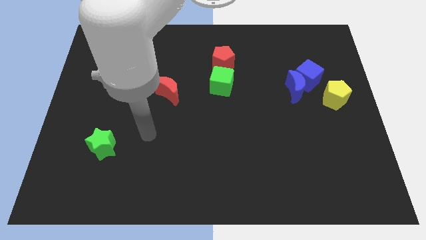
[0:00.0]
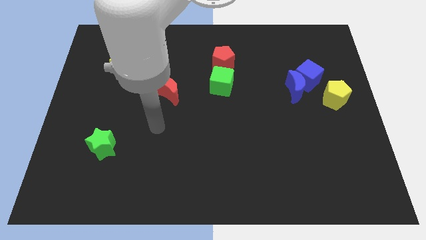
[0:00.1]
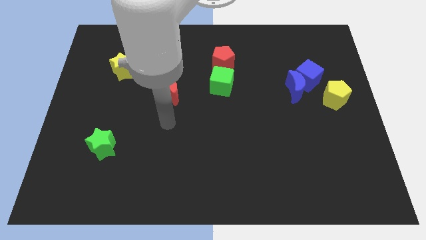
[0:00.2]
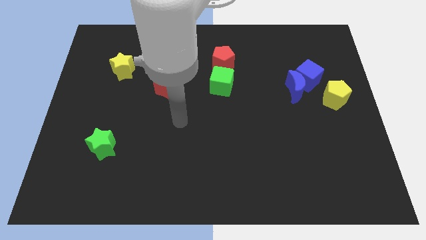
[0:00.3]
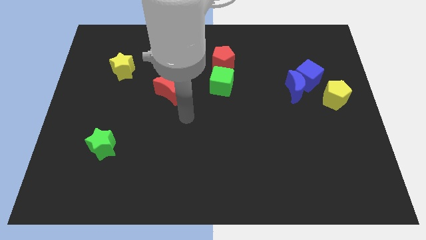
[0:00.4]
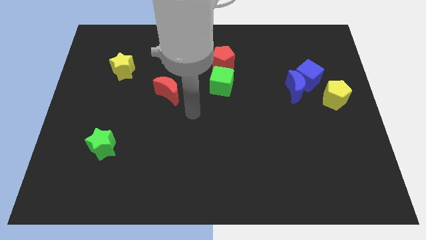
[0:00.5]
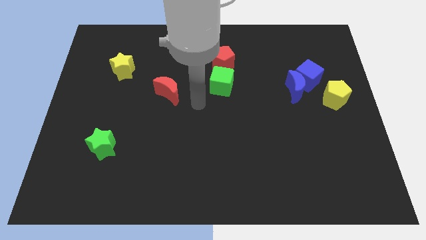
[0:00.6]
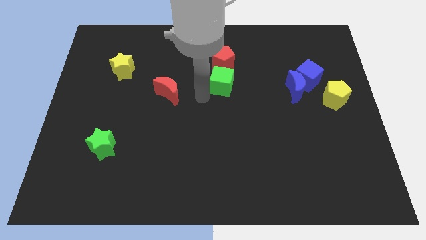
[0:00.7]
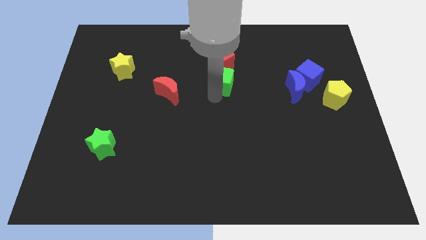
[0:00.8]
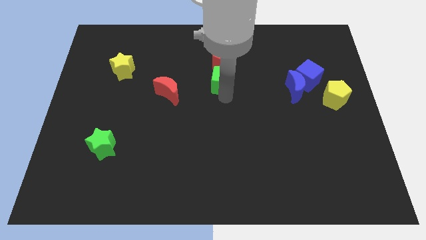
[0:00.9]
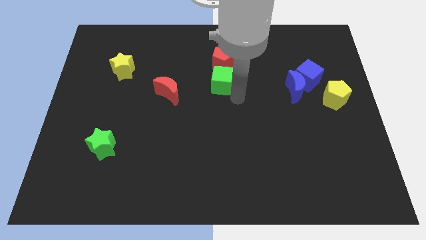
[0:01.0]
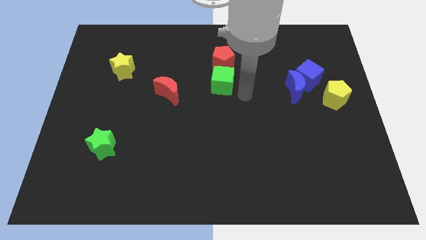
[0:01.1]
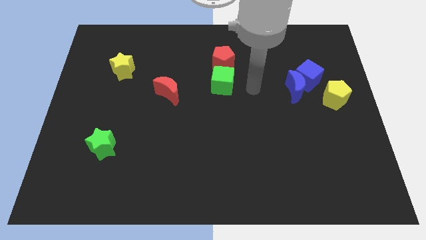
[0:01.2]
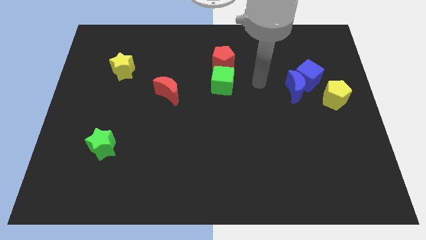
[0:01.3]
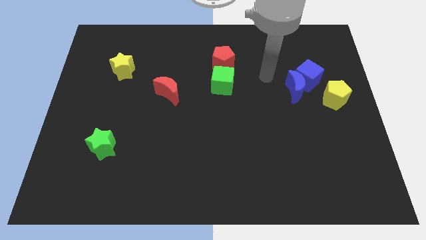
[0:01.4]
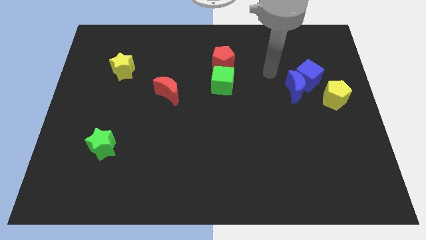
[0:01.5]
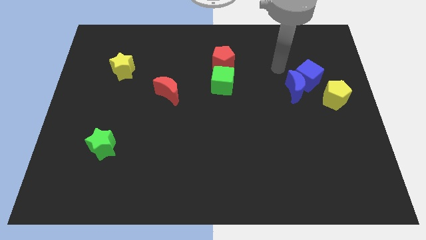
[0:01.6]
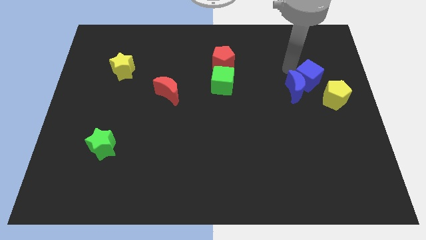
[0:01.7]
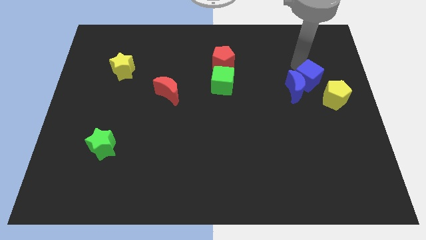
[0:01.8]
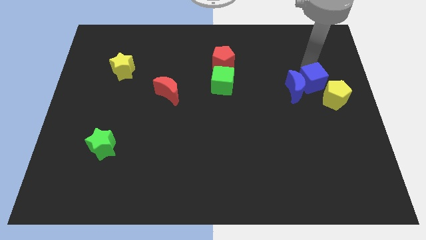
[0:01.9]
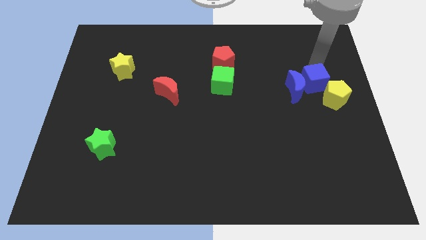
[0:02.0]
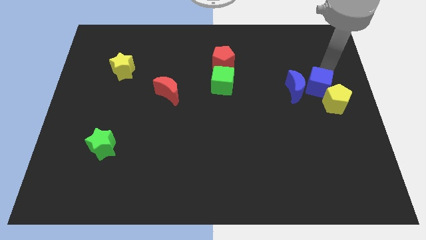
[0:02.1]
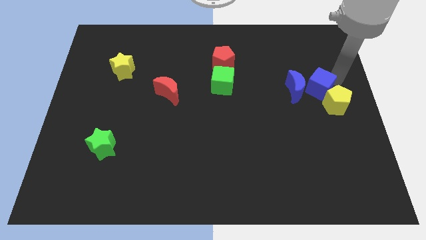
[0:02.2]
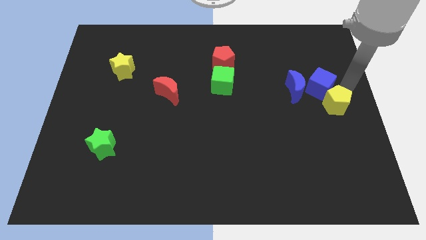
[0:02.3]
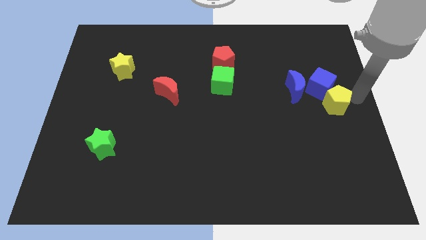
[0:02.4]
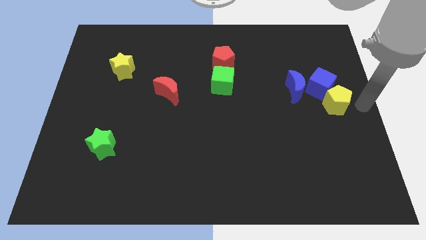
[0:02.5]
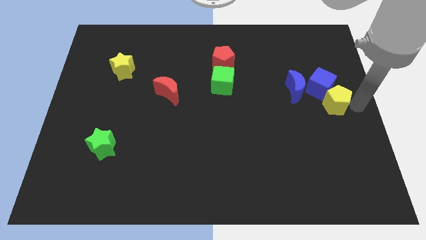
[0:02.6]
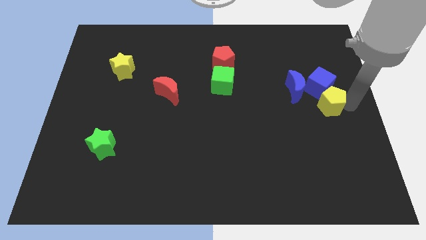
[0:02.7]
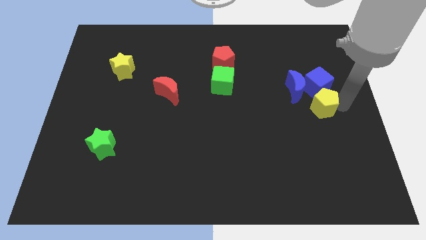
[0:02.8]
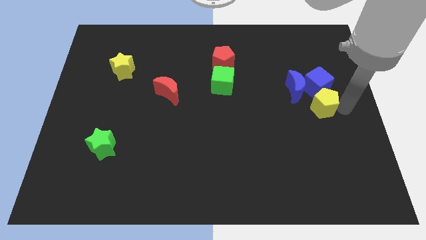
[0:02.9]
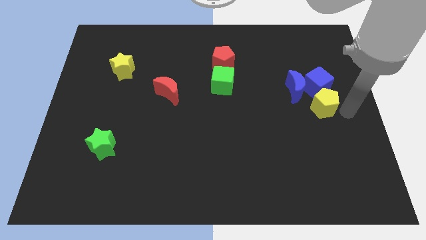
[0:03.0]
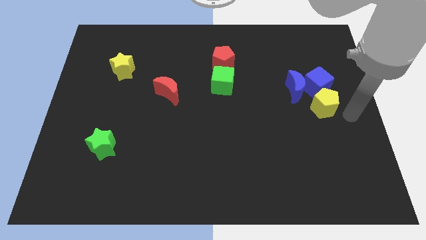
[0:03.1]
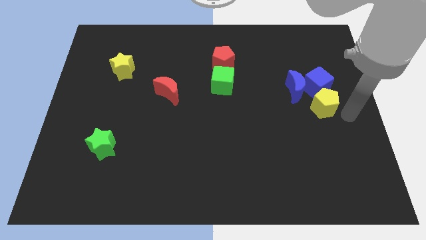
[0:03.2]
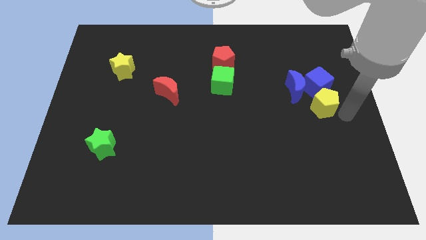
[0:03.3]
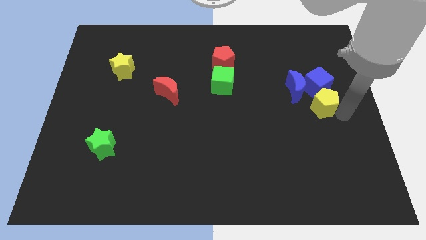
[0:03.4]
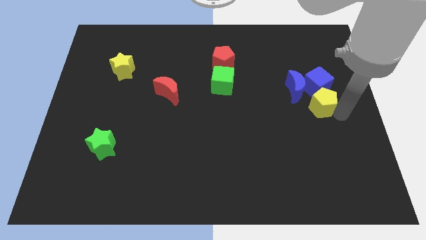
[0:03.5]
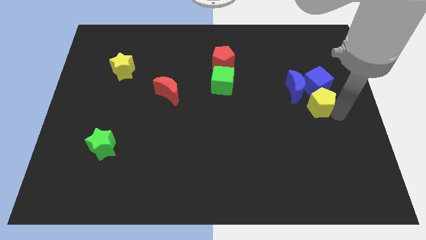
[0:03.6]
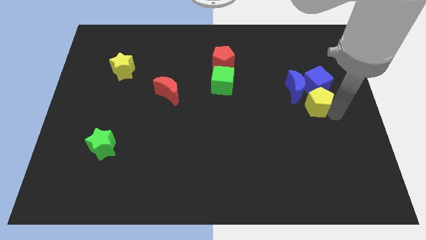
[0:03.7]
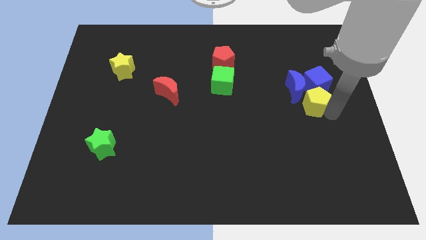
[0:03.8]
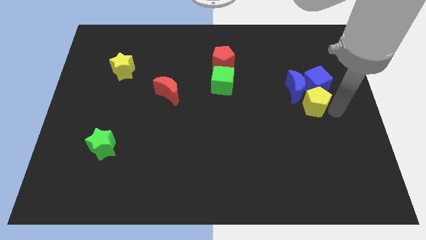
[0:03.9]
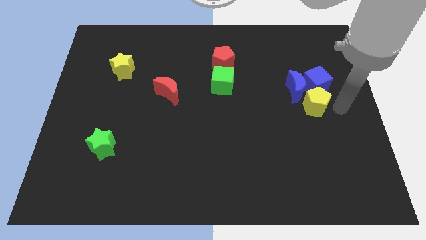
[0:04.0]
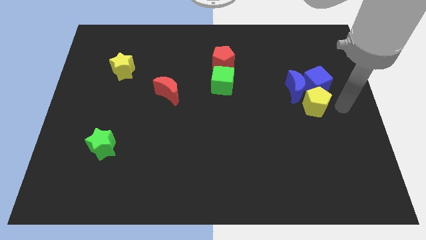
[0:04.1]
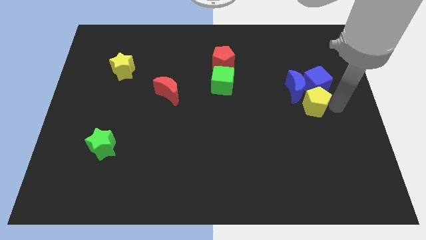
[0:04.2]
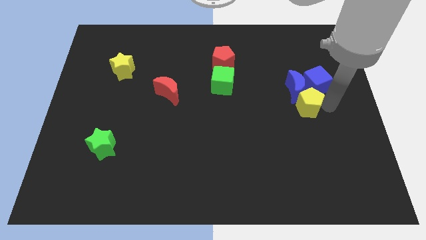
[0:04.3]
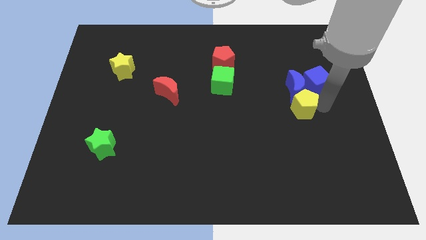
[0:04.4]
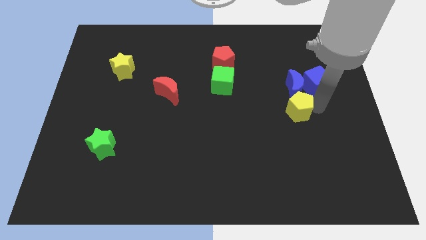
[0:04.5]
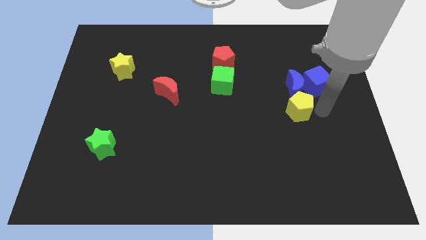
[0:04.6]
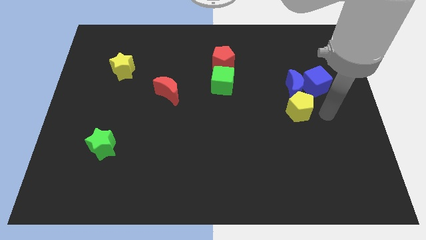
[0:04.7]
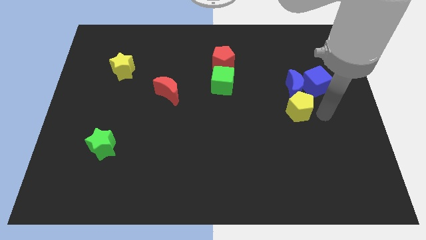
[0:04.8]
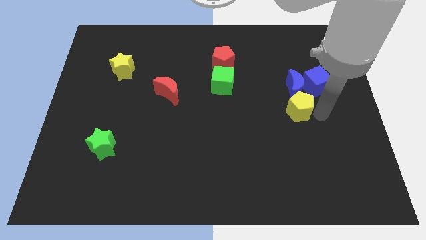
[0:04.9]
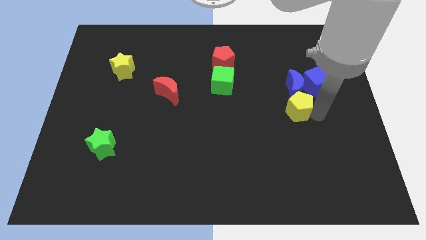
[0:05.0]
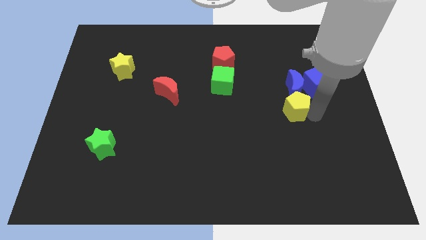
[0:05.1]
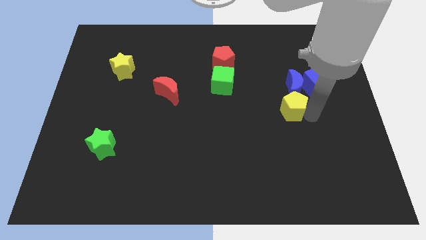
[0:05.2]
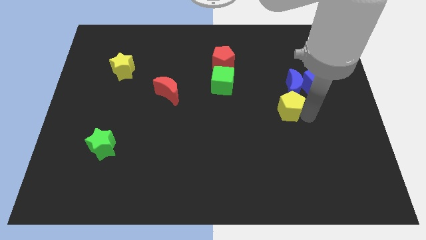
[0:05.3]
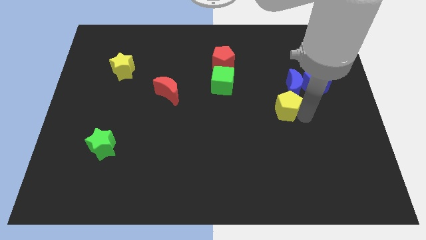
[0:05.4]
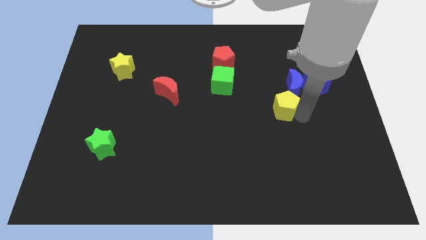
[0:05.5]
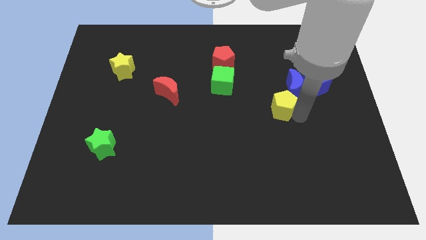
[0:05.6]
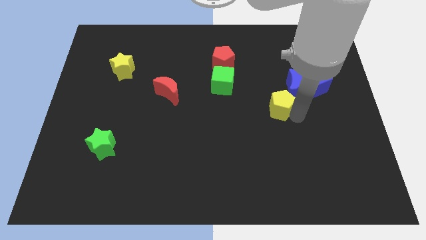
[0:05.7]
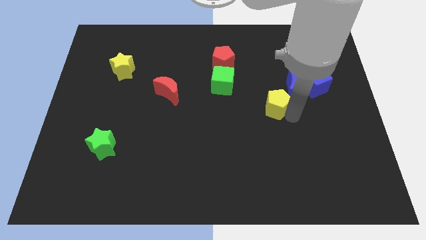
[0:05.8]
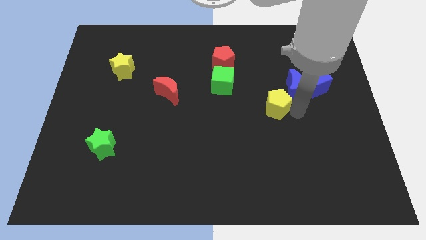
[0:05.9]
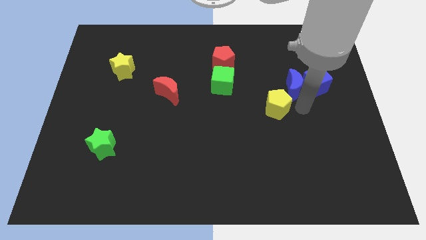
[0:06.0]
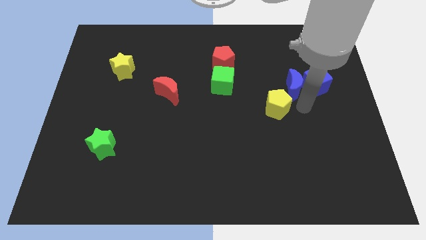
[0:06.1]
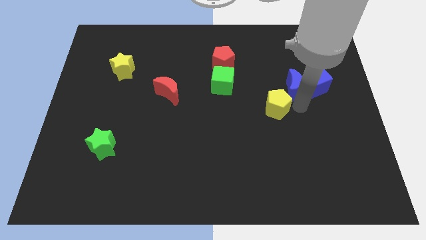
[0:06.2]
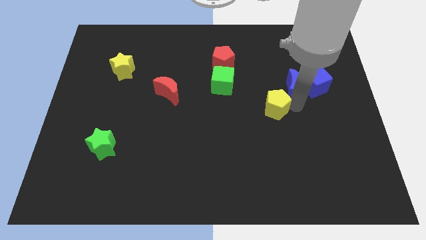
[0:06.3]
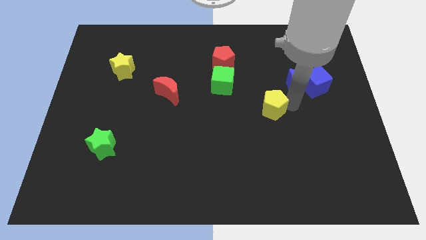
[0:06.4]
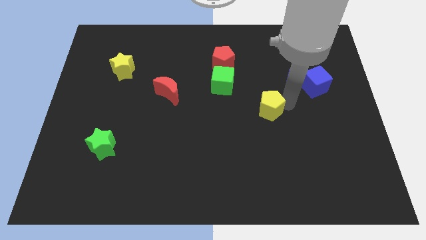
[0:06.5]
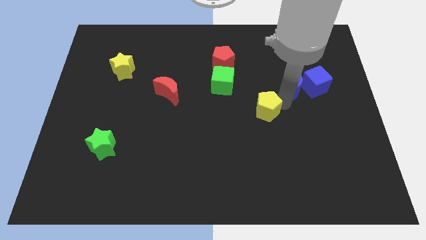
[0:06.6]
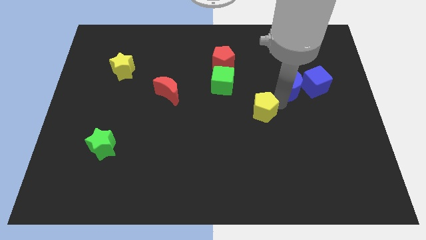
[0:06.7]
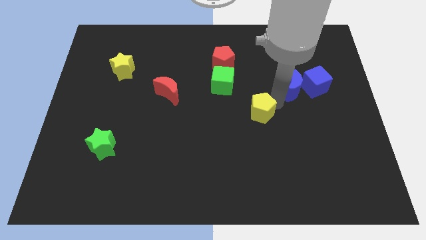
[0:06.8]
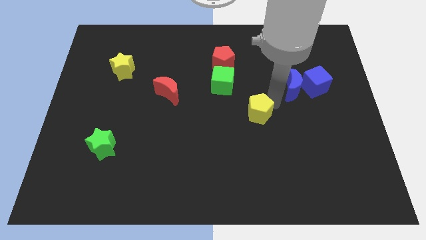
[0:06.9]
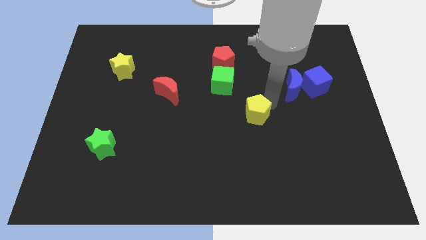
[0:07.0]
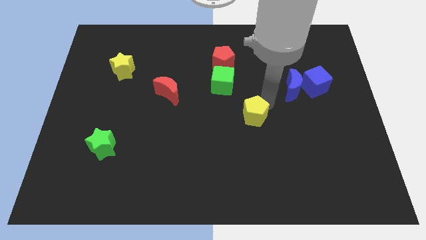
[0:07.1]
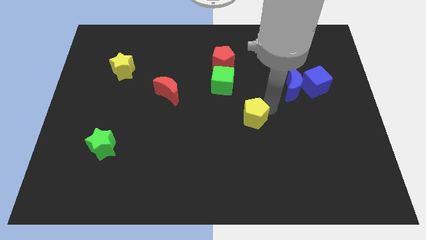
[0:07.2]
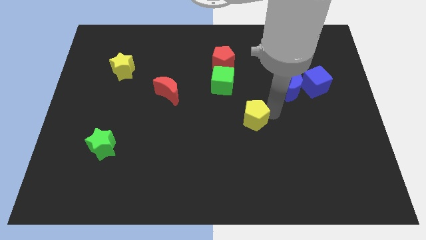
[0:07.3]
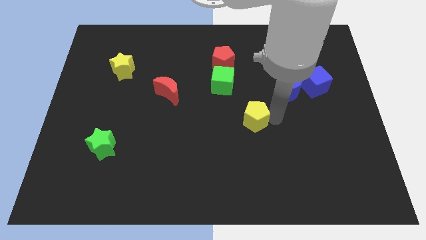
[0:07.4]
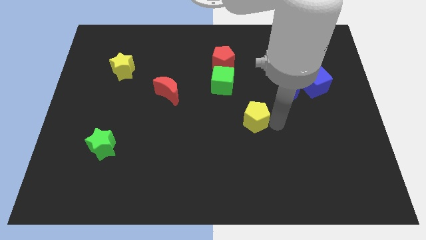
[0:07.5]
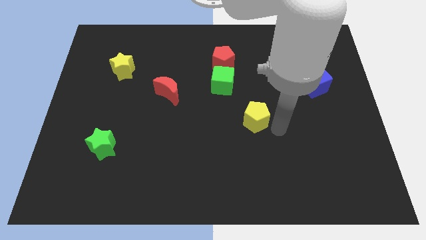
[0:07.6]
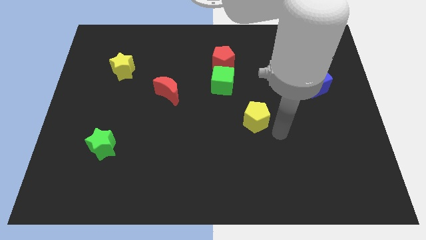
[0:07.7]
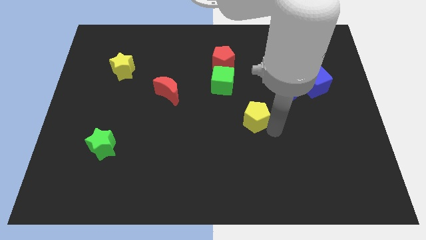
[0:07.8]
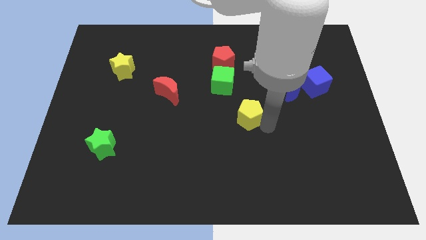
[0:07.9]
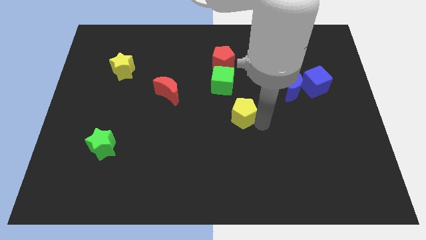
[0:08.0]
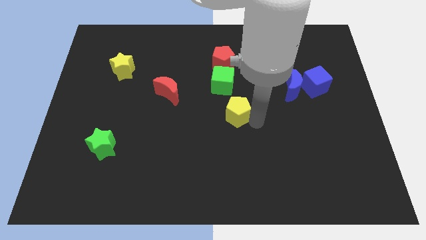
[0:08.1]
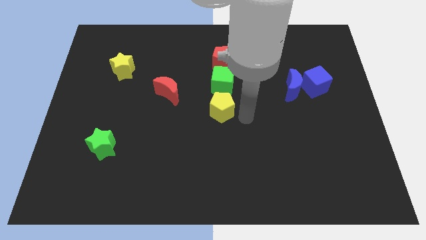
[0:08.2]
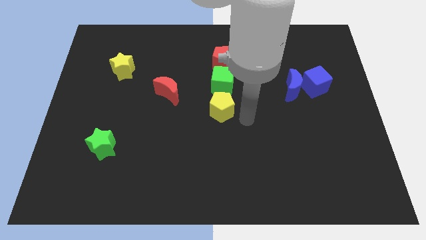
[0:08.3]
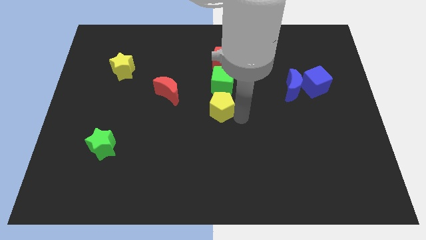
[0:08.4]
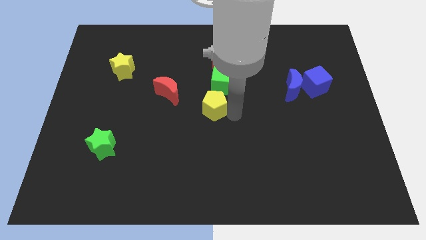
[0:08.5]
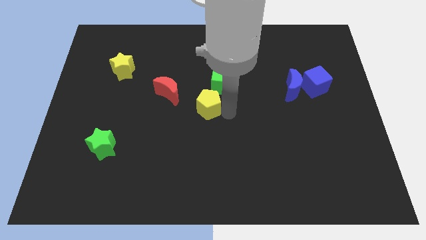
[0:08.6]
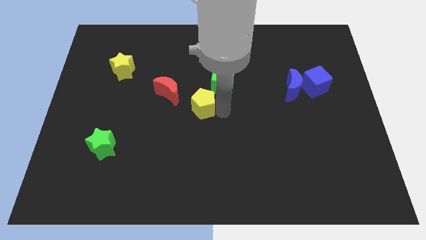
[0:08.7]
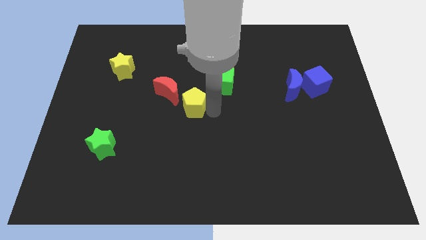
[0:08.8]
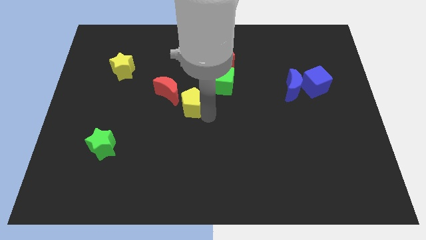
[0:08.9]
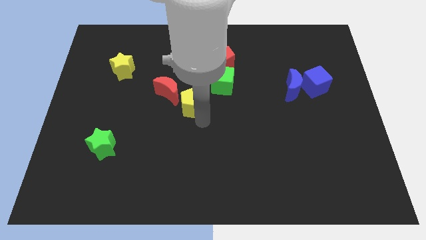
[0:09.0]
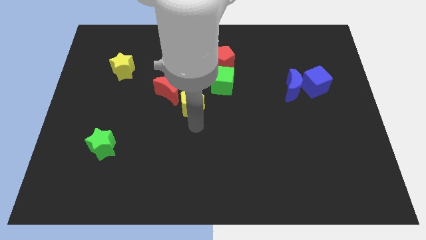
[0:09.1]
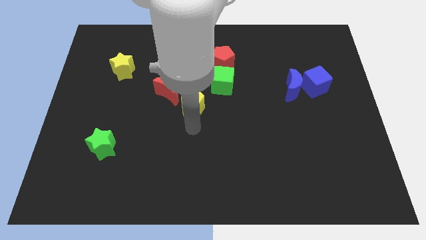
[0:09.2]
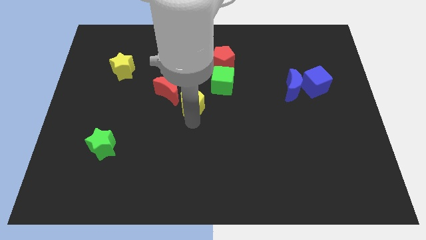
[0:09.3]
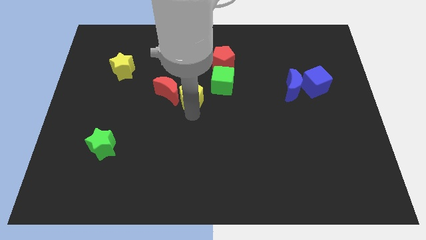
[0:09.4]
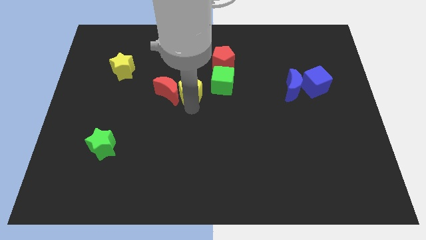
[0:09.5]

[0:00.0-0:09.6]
slide the yellow pentagon to the top right of the red moon
